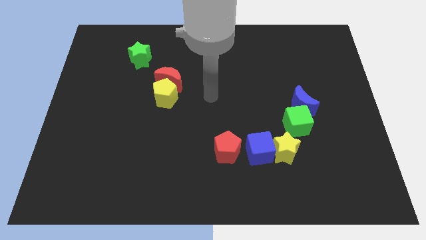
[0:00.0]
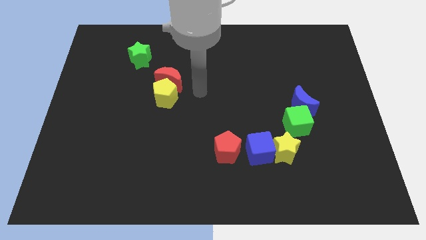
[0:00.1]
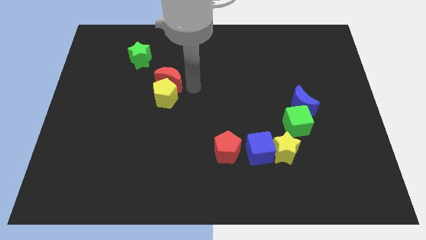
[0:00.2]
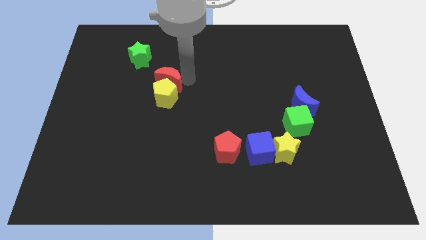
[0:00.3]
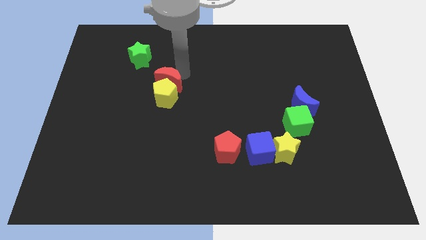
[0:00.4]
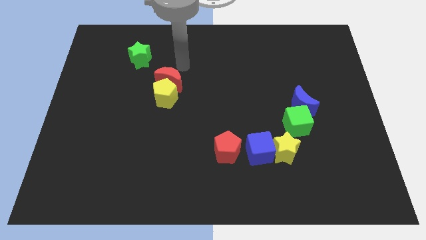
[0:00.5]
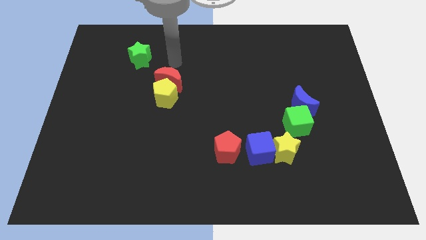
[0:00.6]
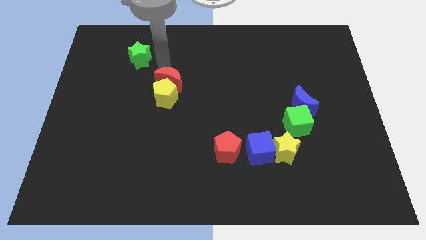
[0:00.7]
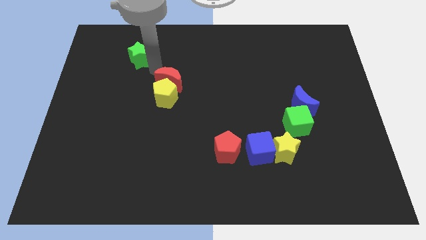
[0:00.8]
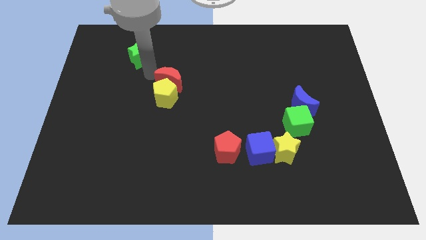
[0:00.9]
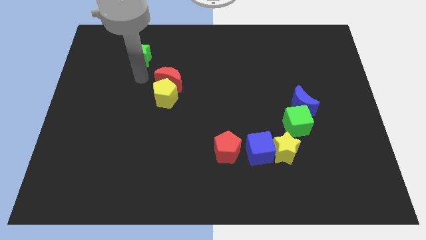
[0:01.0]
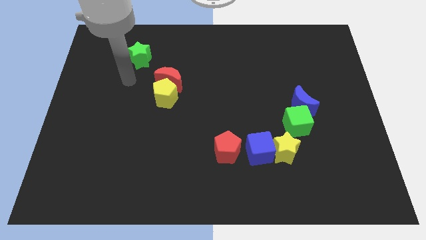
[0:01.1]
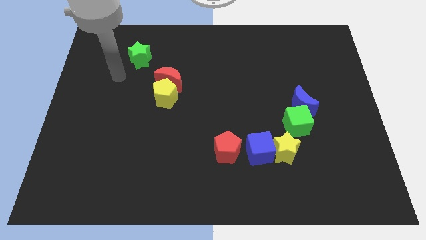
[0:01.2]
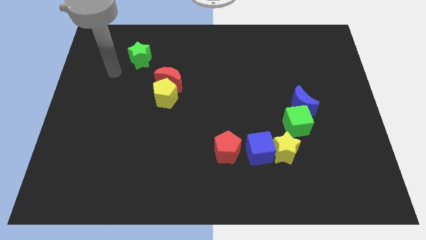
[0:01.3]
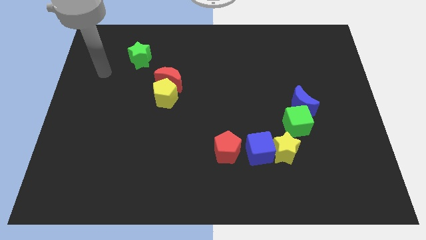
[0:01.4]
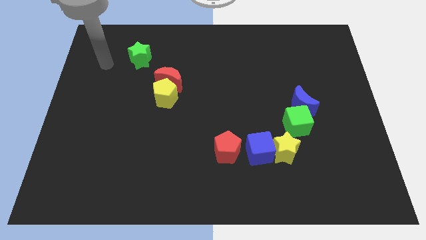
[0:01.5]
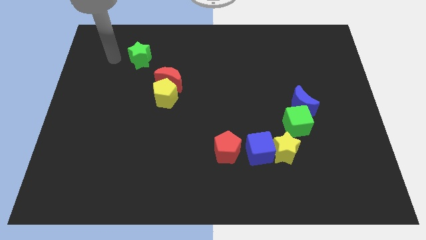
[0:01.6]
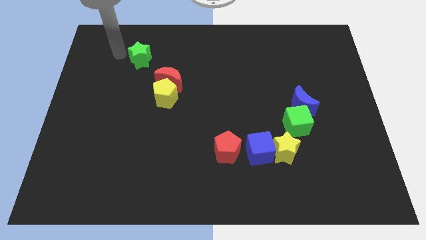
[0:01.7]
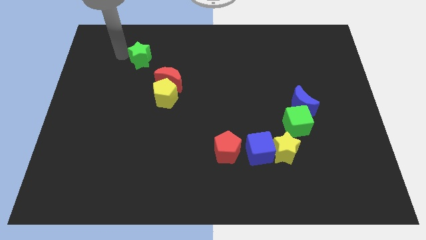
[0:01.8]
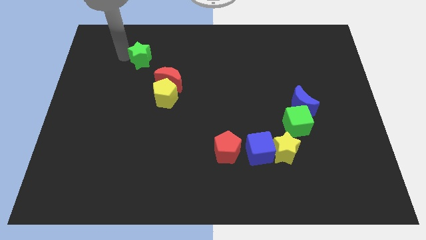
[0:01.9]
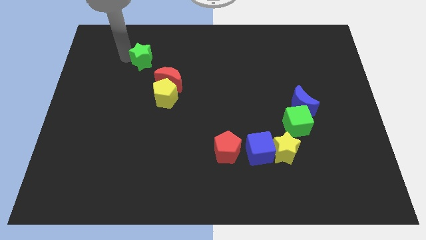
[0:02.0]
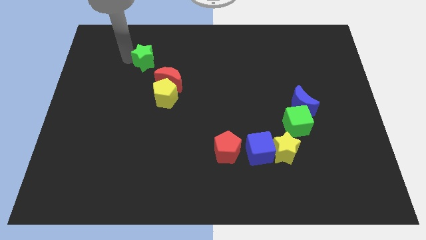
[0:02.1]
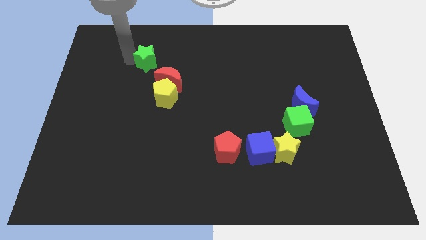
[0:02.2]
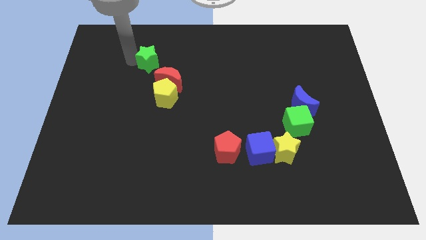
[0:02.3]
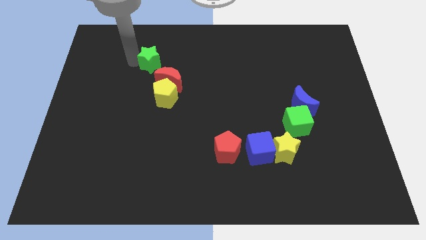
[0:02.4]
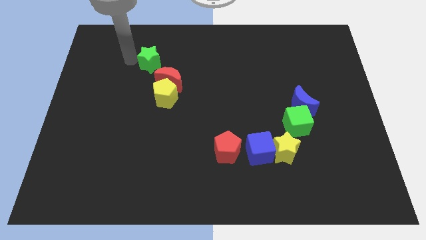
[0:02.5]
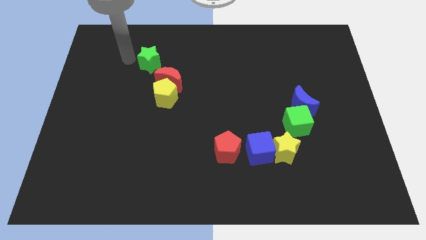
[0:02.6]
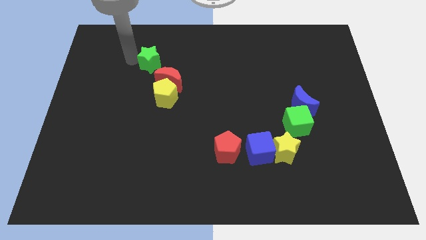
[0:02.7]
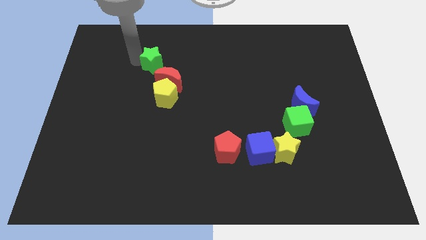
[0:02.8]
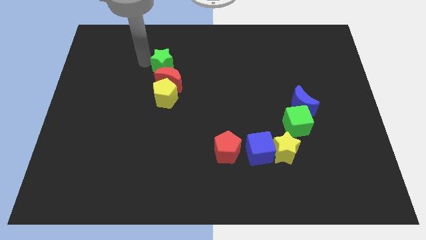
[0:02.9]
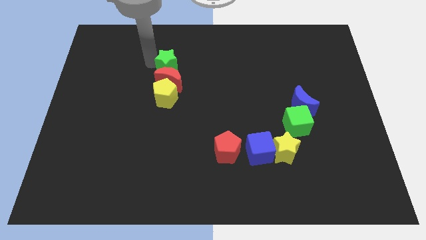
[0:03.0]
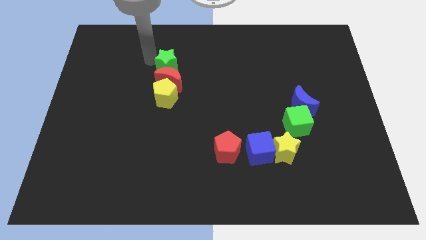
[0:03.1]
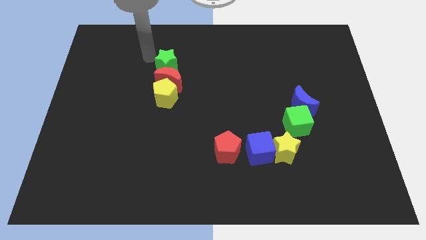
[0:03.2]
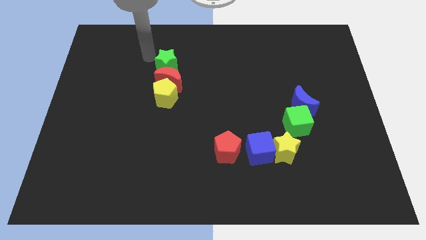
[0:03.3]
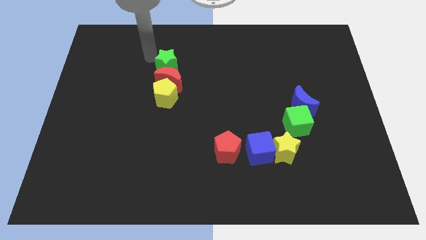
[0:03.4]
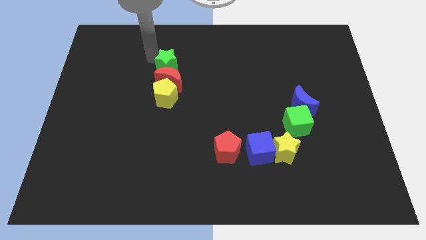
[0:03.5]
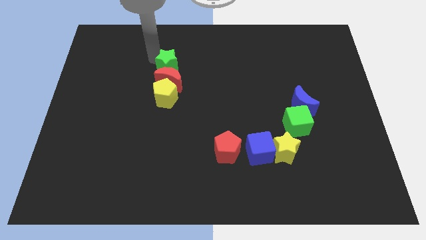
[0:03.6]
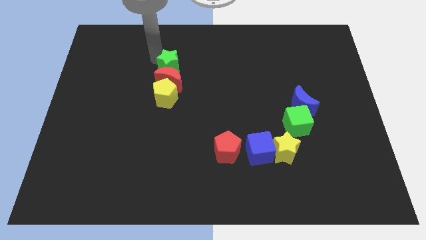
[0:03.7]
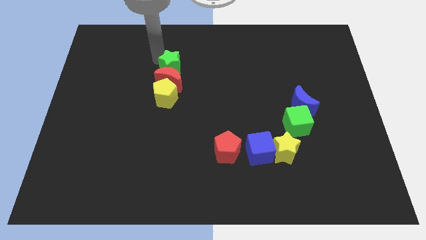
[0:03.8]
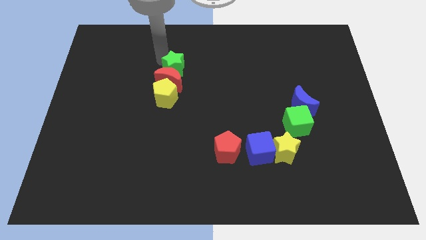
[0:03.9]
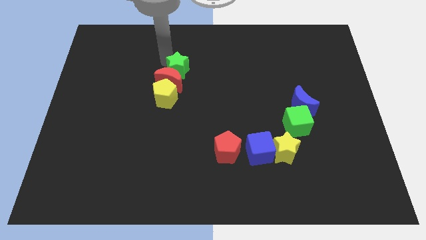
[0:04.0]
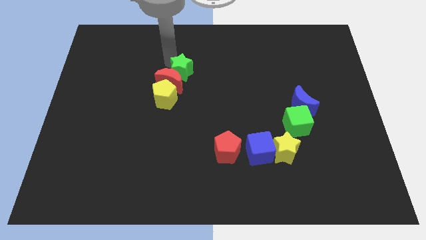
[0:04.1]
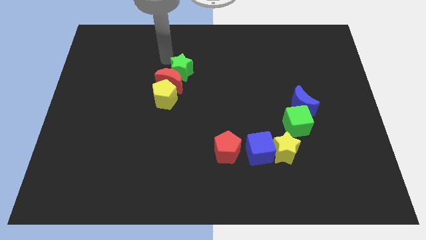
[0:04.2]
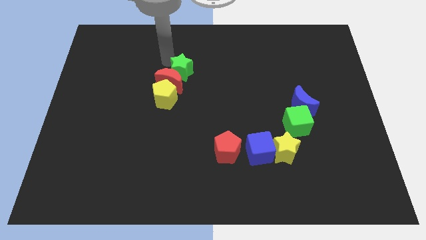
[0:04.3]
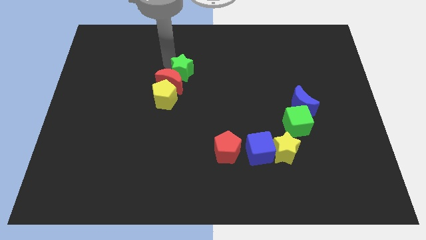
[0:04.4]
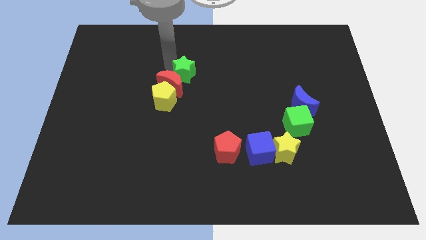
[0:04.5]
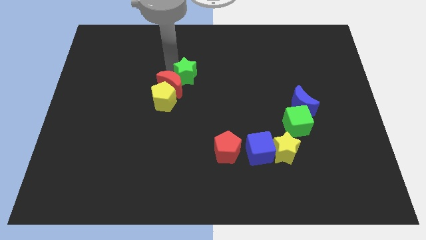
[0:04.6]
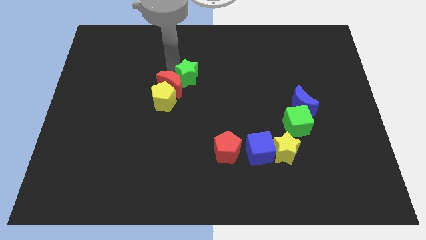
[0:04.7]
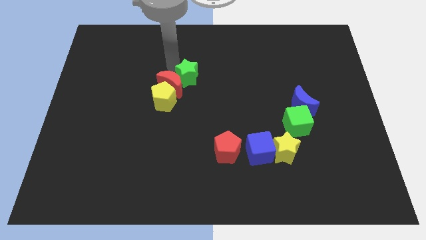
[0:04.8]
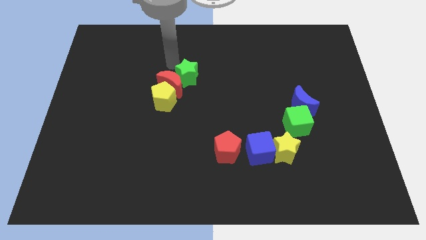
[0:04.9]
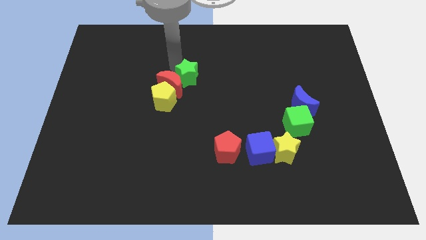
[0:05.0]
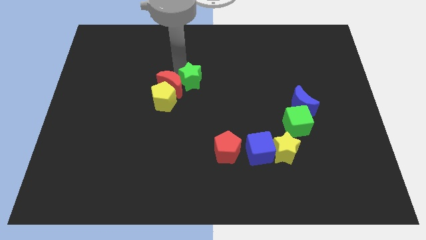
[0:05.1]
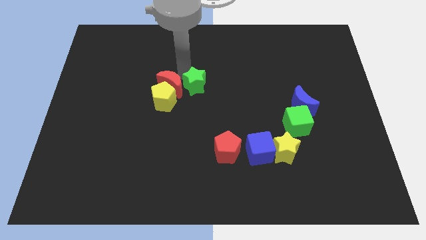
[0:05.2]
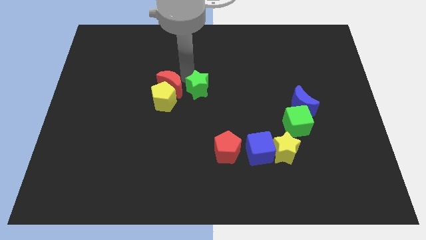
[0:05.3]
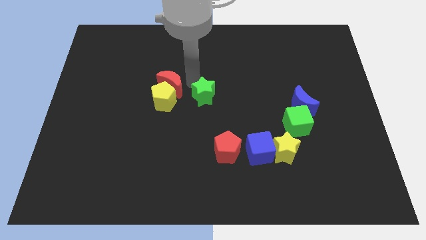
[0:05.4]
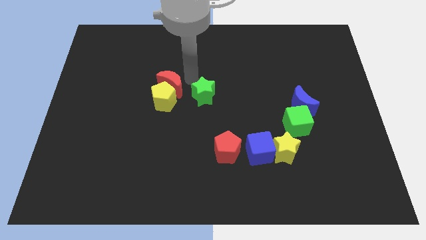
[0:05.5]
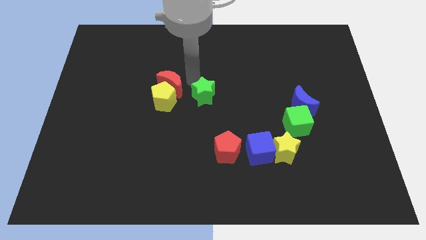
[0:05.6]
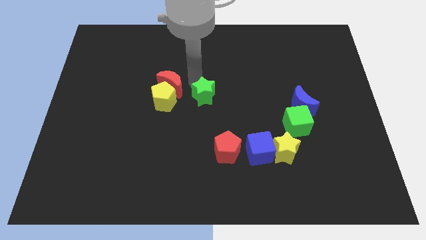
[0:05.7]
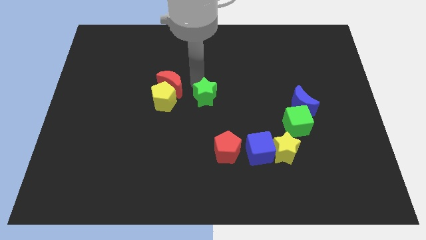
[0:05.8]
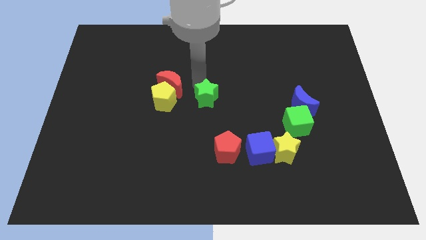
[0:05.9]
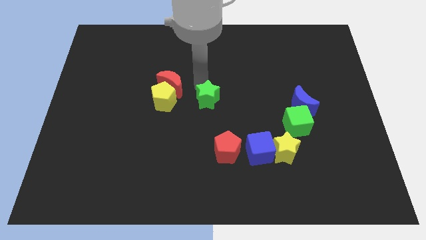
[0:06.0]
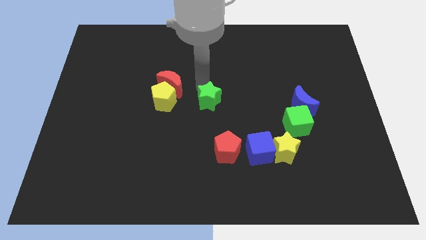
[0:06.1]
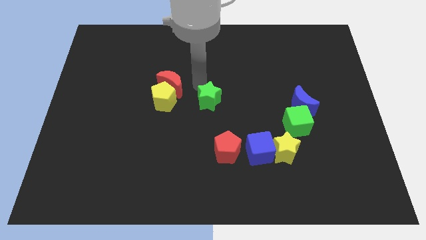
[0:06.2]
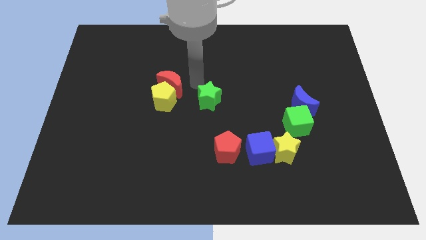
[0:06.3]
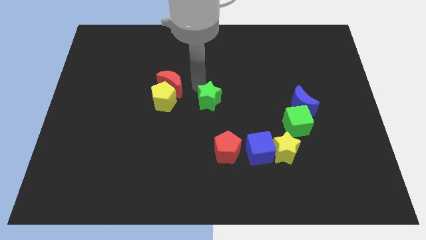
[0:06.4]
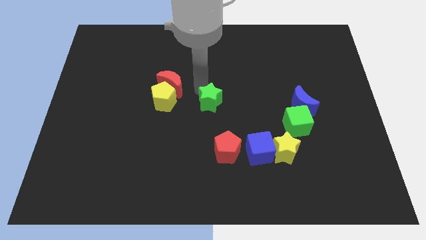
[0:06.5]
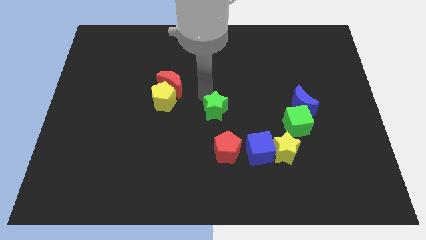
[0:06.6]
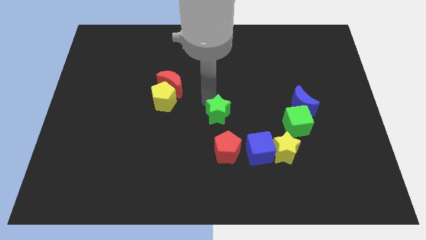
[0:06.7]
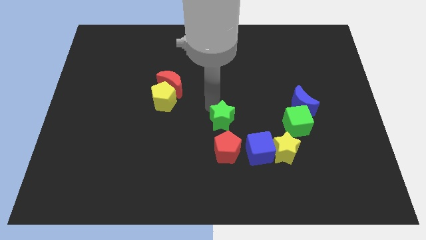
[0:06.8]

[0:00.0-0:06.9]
push the green star to the top left side of the blue cube
